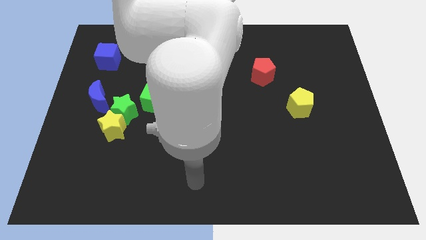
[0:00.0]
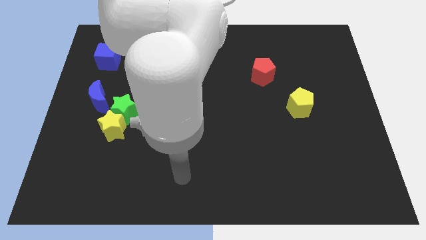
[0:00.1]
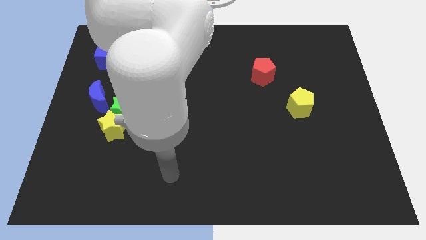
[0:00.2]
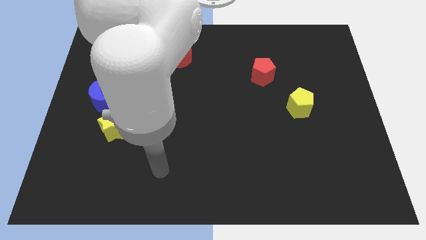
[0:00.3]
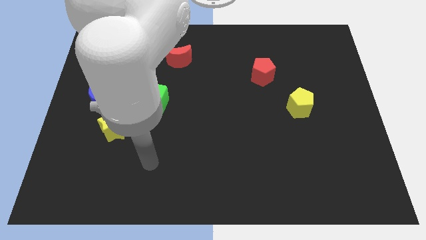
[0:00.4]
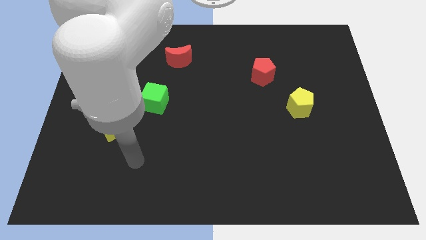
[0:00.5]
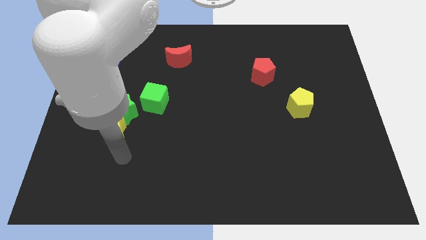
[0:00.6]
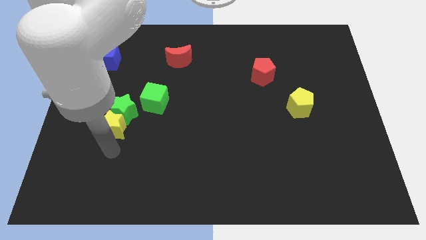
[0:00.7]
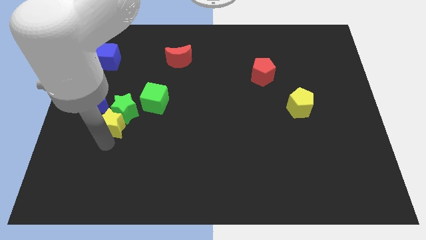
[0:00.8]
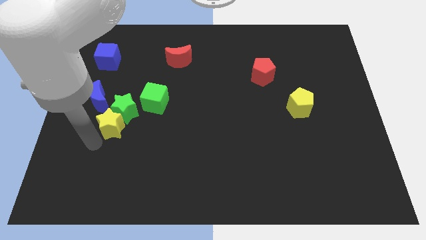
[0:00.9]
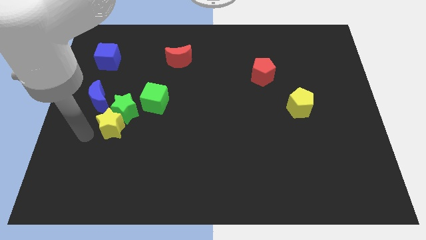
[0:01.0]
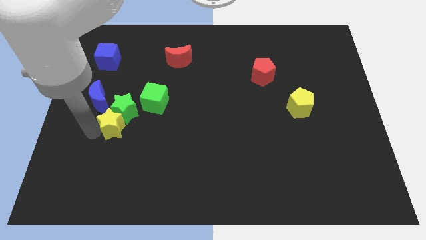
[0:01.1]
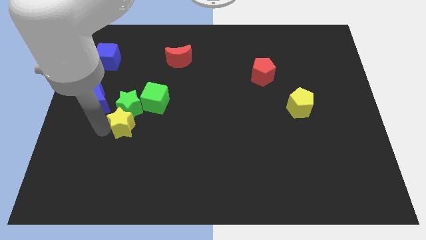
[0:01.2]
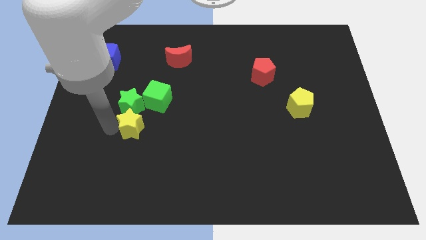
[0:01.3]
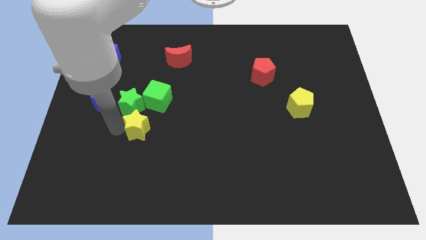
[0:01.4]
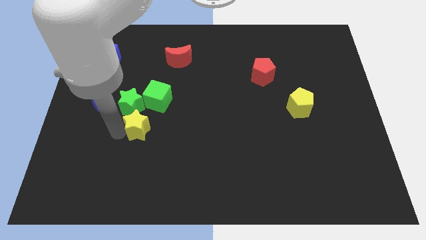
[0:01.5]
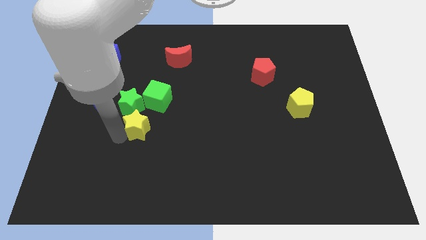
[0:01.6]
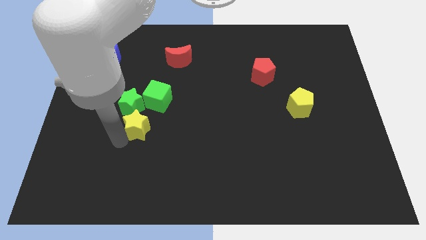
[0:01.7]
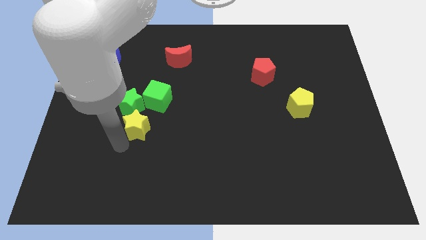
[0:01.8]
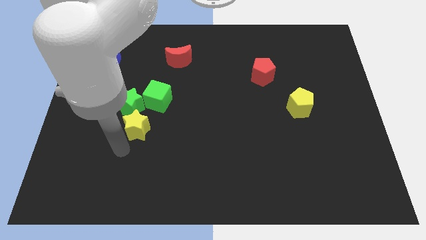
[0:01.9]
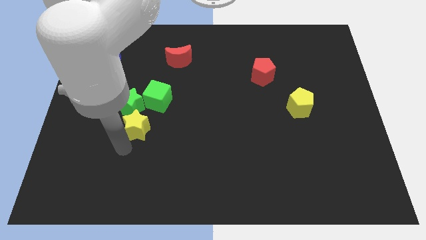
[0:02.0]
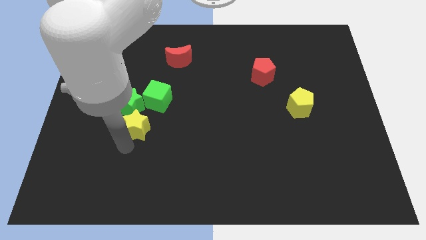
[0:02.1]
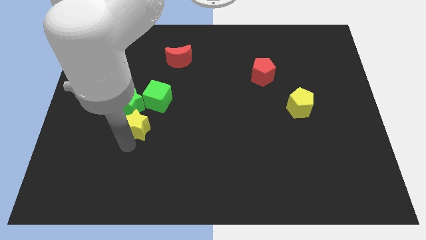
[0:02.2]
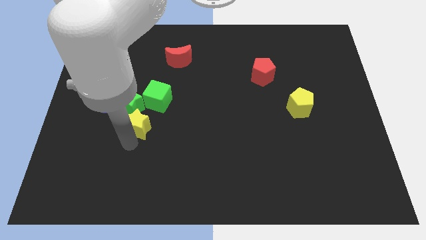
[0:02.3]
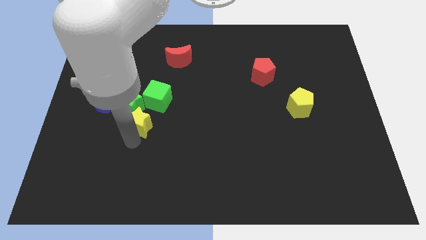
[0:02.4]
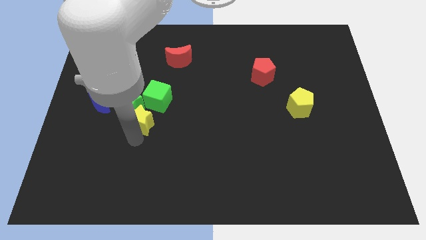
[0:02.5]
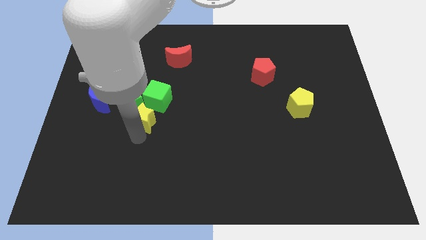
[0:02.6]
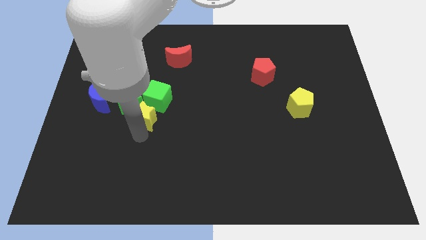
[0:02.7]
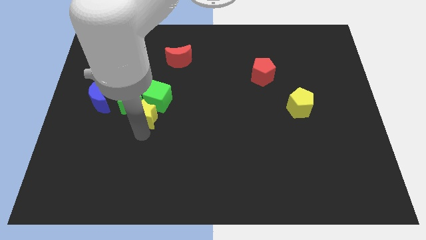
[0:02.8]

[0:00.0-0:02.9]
slightly slide the yellow star up and then to the right

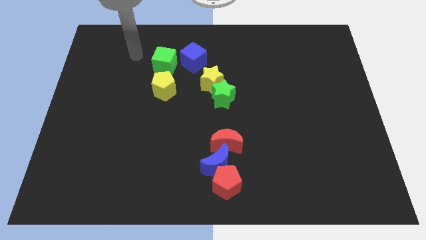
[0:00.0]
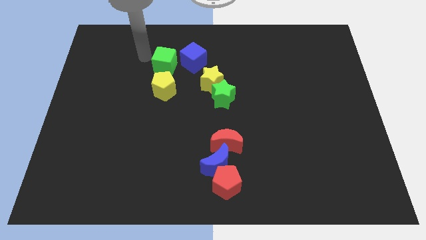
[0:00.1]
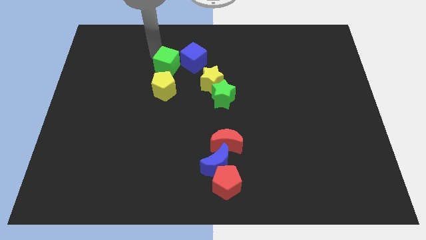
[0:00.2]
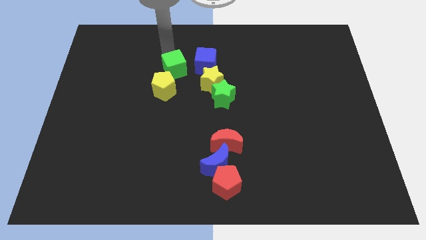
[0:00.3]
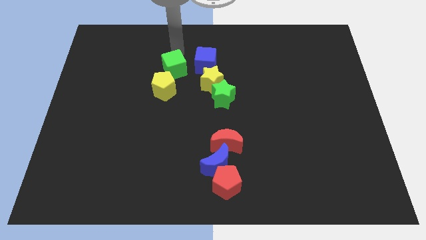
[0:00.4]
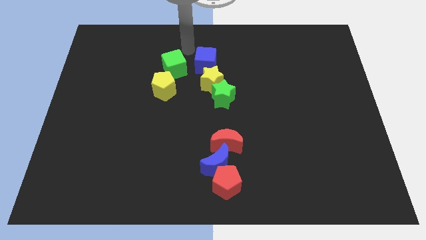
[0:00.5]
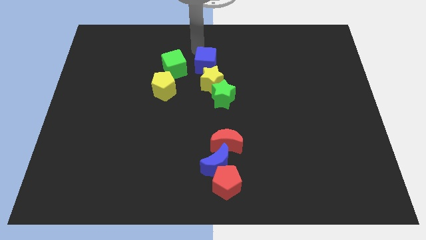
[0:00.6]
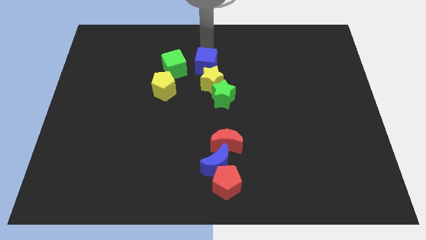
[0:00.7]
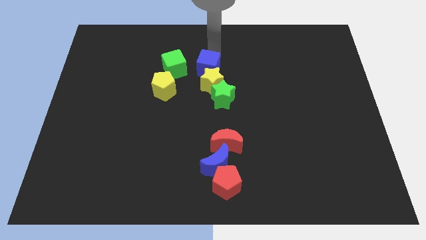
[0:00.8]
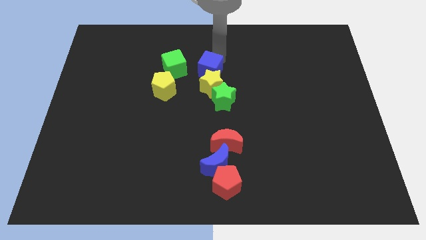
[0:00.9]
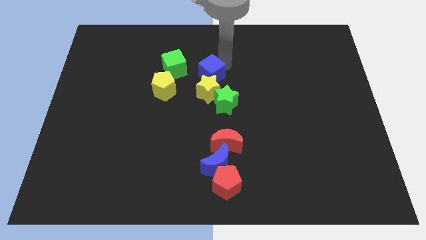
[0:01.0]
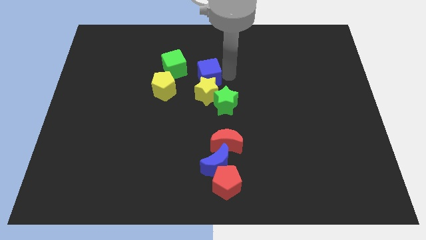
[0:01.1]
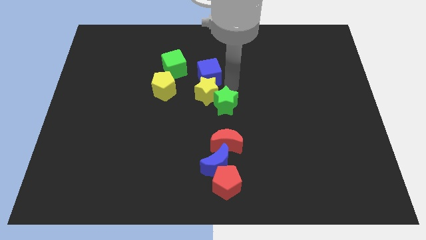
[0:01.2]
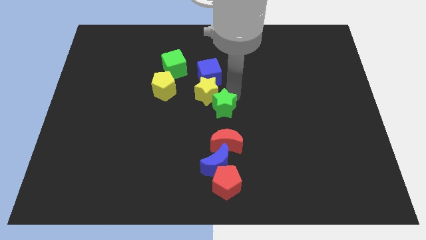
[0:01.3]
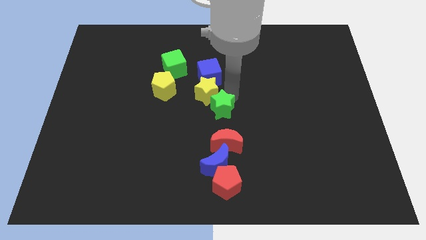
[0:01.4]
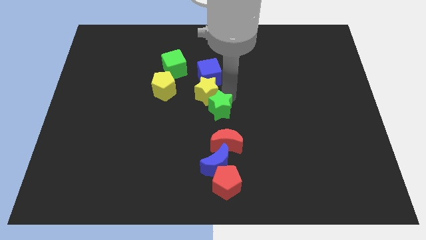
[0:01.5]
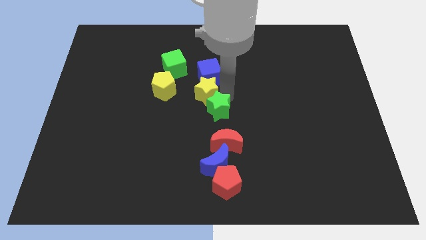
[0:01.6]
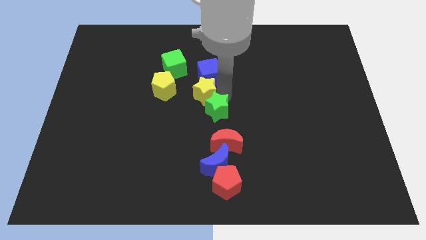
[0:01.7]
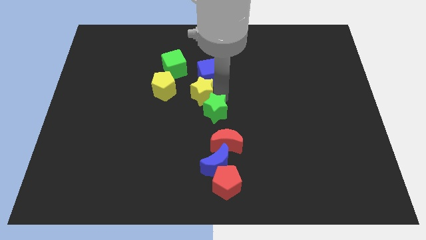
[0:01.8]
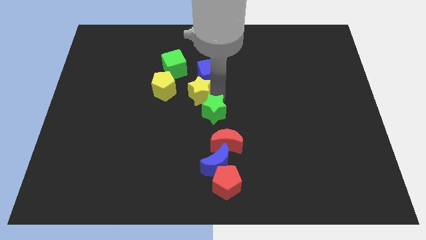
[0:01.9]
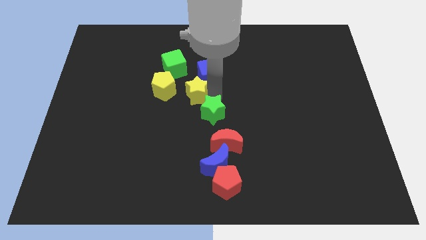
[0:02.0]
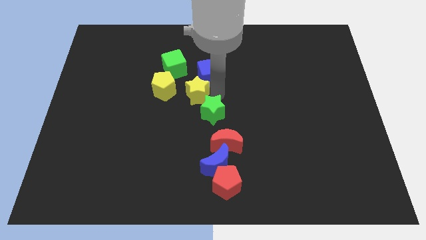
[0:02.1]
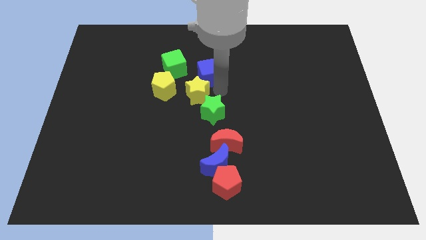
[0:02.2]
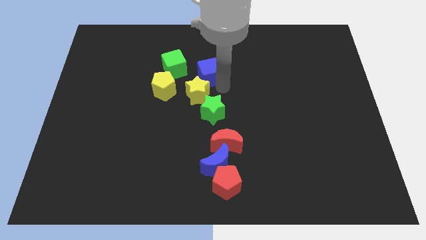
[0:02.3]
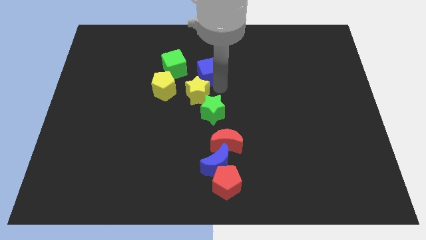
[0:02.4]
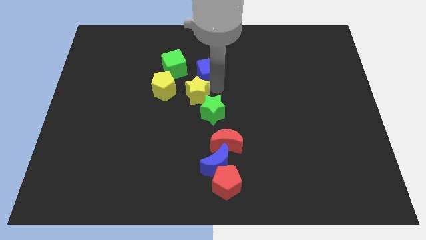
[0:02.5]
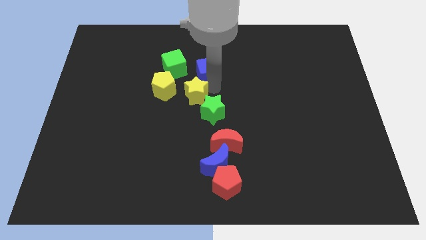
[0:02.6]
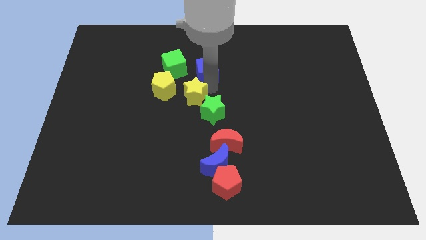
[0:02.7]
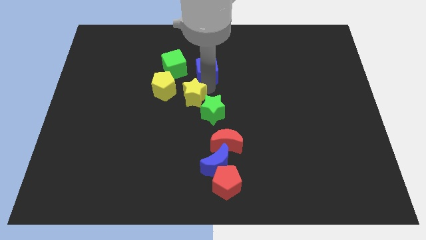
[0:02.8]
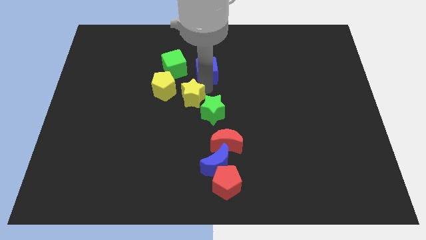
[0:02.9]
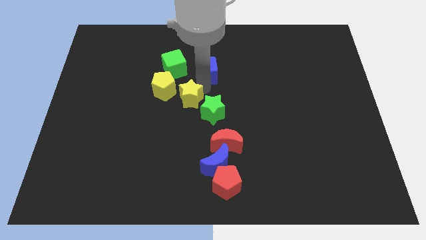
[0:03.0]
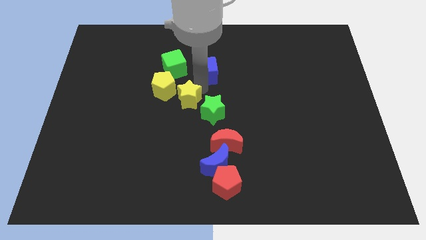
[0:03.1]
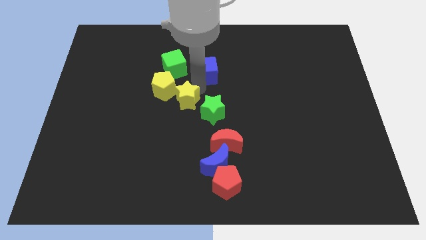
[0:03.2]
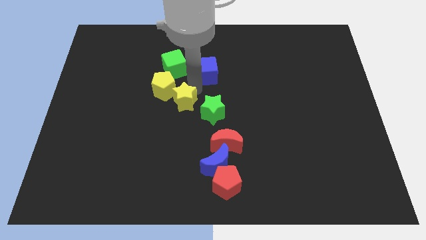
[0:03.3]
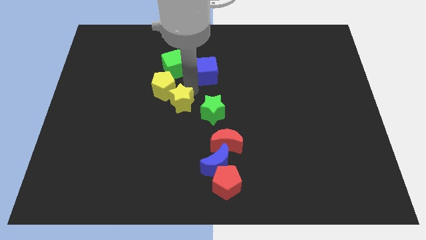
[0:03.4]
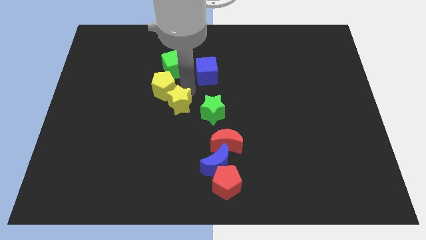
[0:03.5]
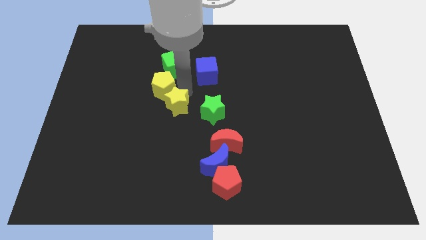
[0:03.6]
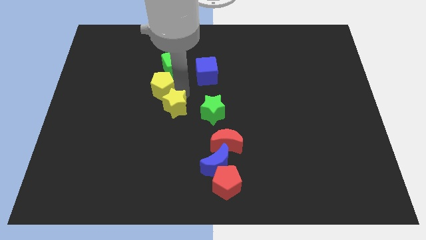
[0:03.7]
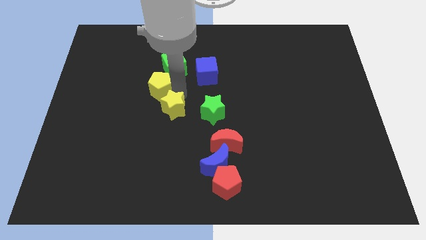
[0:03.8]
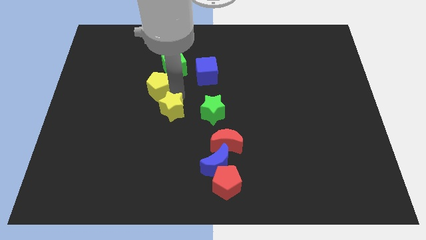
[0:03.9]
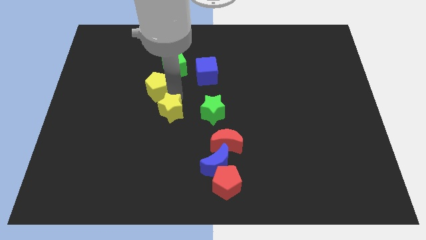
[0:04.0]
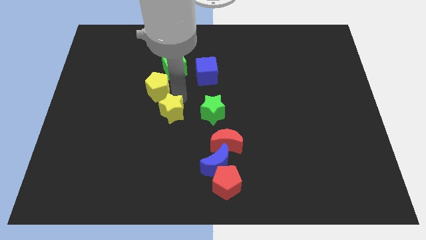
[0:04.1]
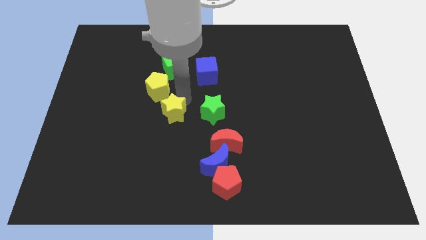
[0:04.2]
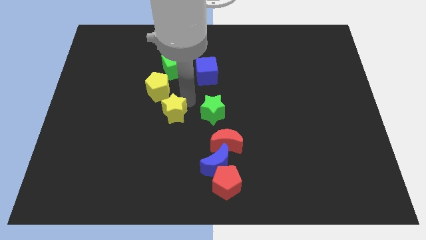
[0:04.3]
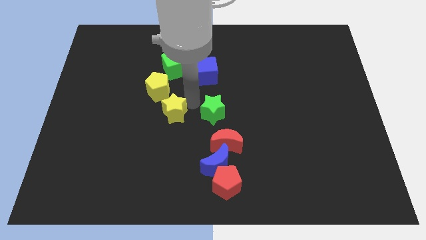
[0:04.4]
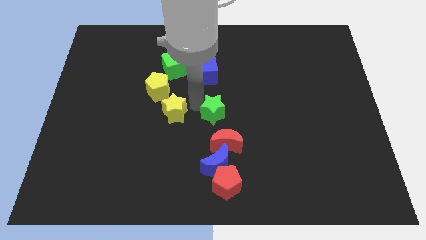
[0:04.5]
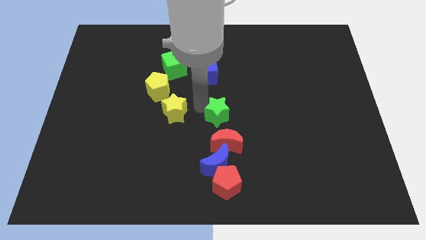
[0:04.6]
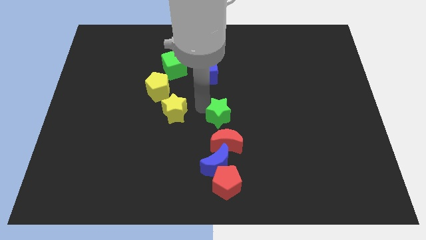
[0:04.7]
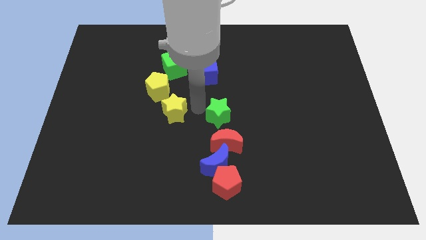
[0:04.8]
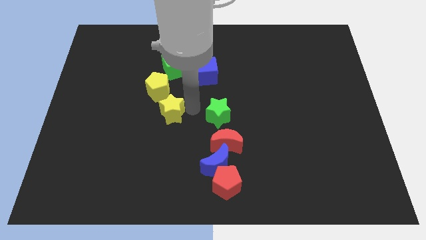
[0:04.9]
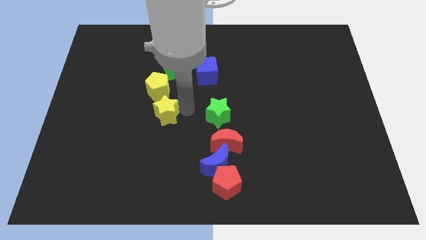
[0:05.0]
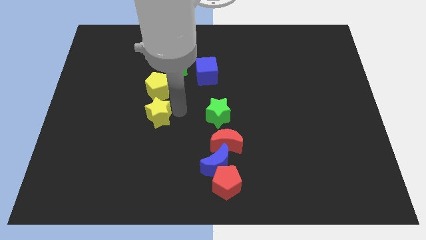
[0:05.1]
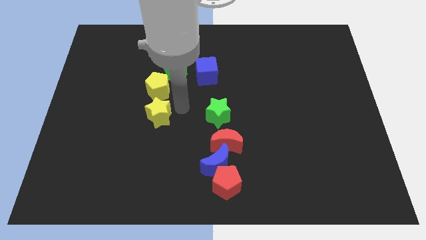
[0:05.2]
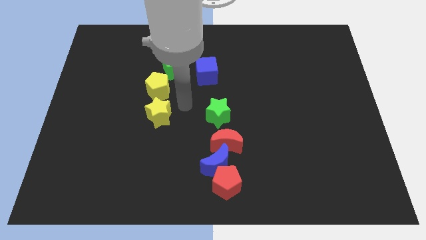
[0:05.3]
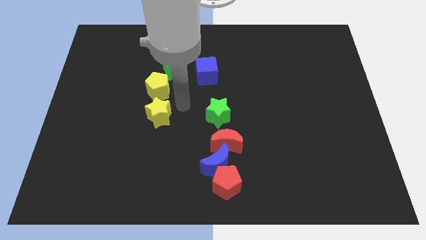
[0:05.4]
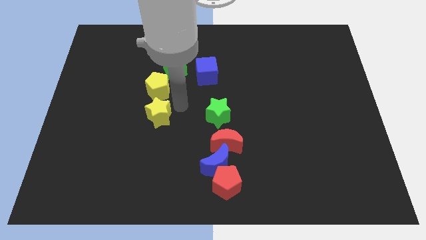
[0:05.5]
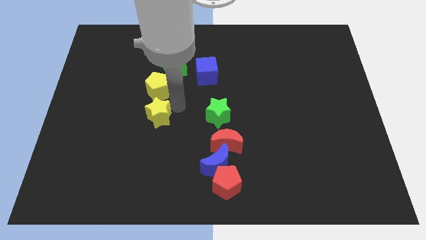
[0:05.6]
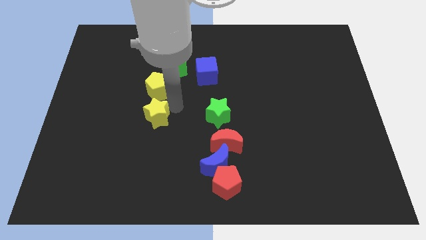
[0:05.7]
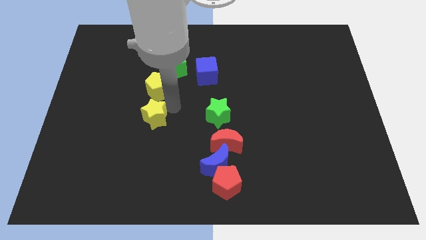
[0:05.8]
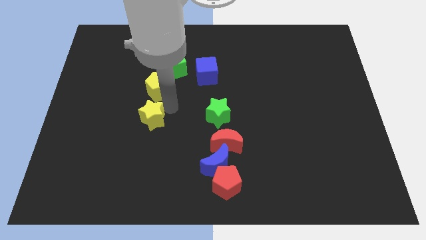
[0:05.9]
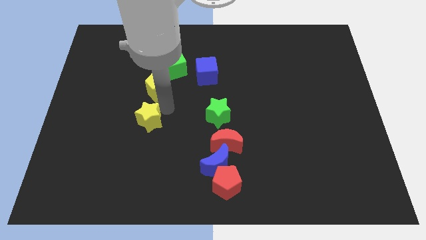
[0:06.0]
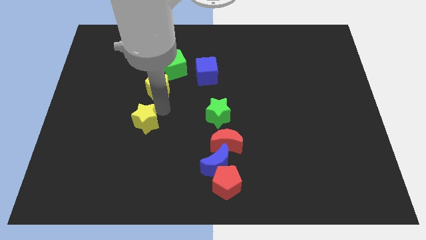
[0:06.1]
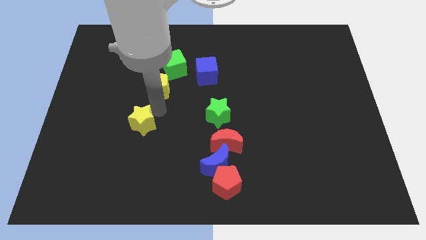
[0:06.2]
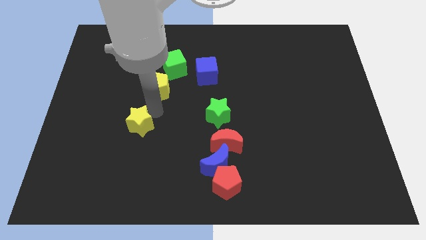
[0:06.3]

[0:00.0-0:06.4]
move the yellow star diagonally downwards and left
